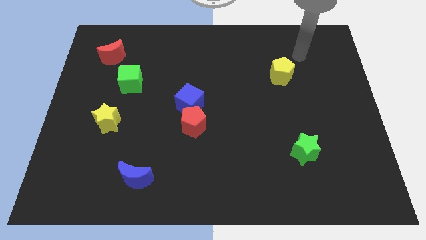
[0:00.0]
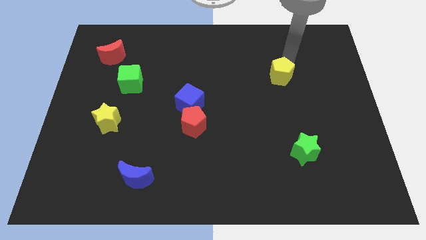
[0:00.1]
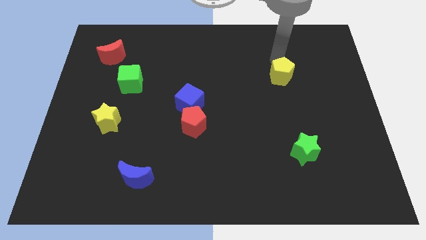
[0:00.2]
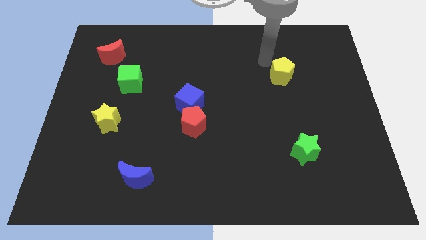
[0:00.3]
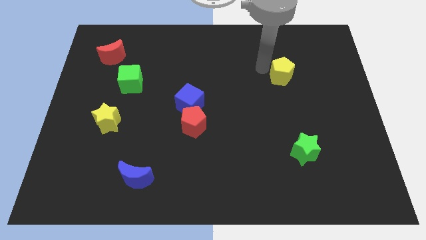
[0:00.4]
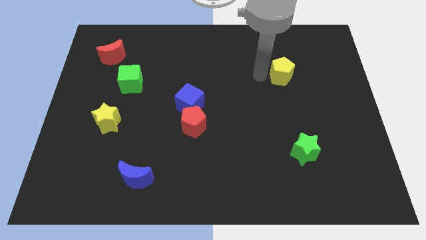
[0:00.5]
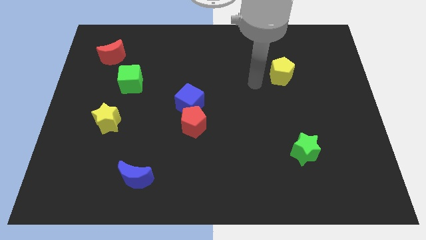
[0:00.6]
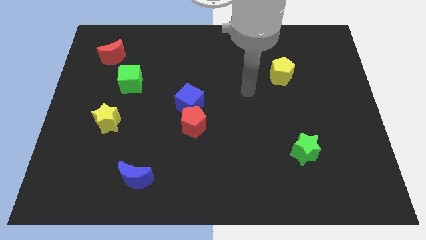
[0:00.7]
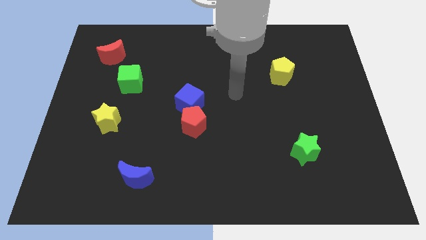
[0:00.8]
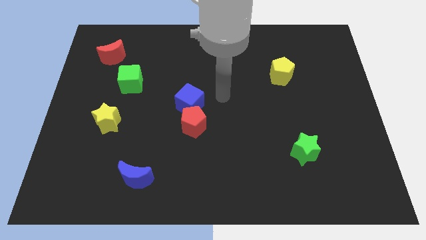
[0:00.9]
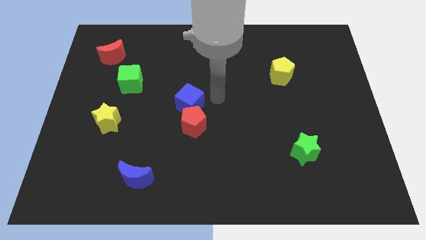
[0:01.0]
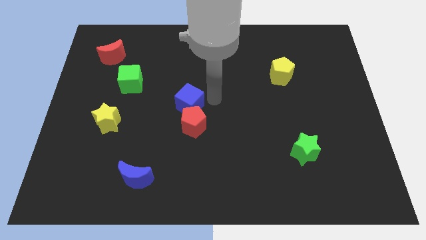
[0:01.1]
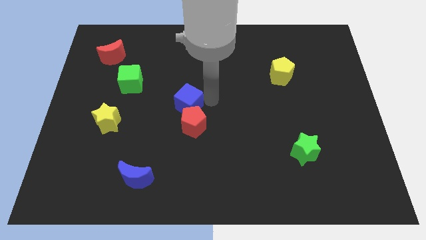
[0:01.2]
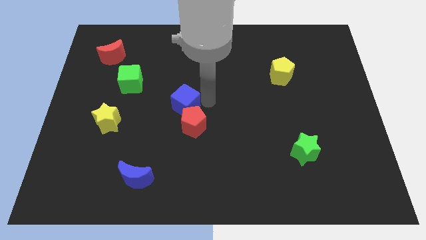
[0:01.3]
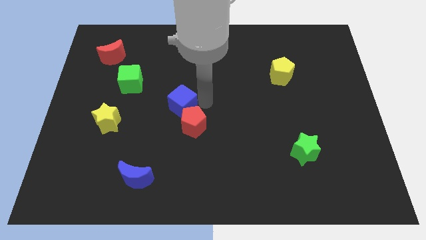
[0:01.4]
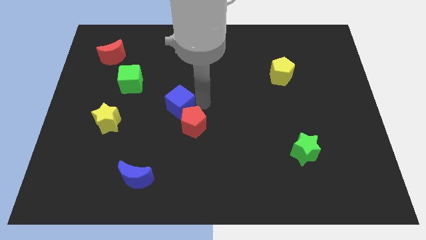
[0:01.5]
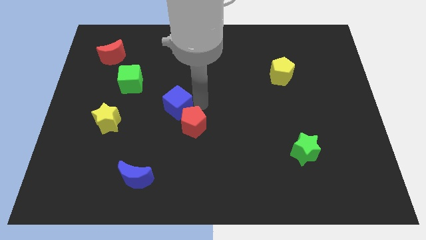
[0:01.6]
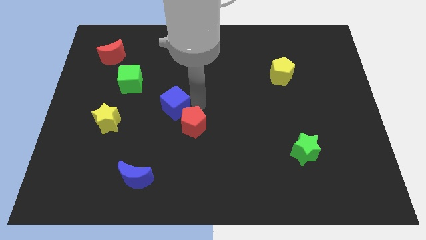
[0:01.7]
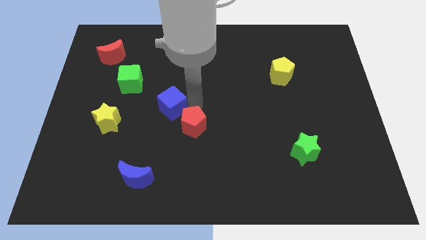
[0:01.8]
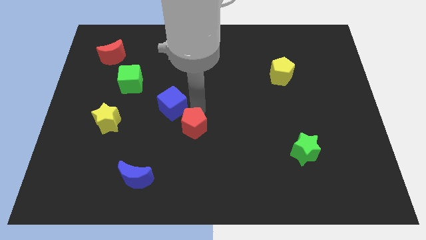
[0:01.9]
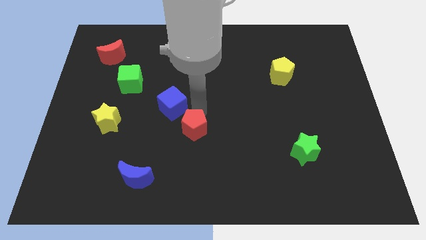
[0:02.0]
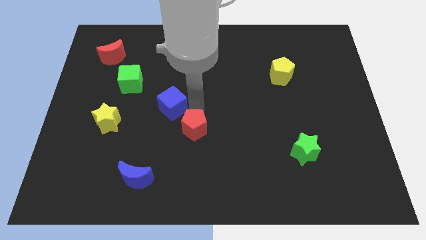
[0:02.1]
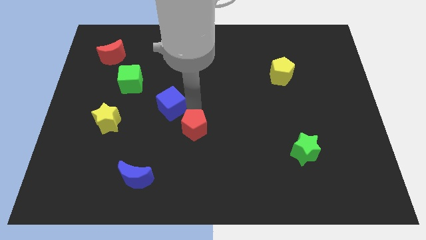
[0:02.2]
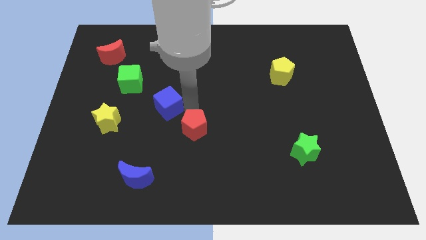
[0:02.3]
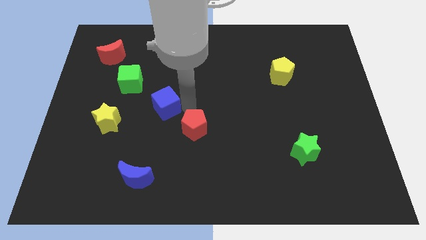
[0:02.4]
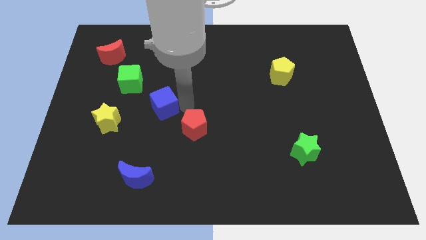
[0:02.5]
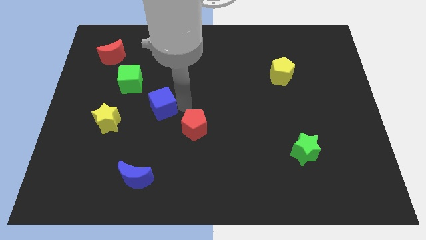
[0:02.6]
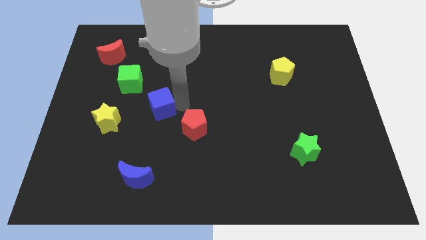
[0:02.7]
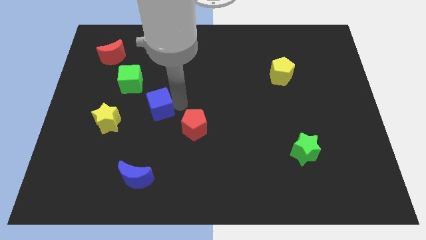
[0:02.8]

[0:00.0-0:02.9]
slightly push the blue cube left

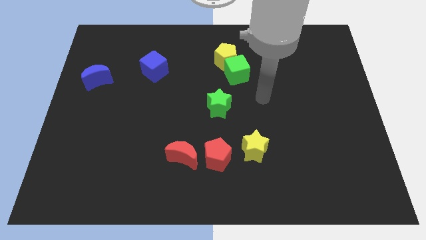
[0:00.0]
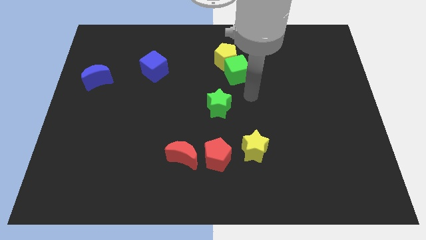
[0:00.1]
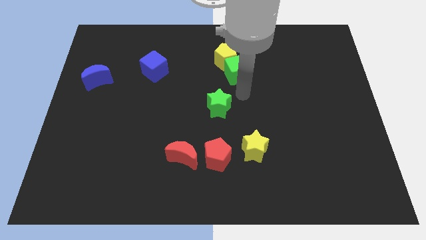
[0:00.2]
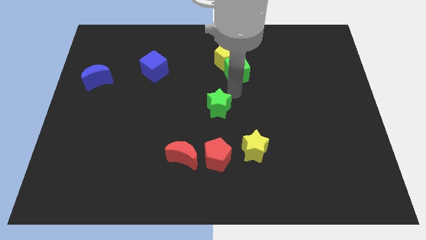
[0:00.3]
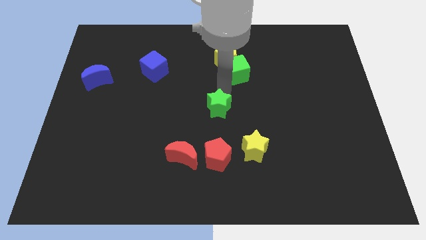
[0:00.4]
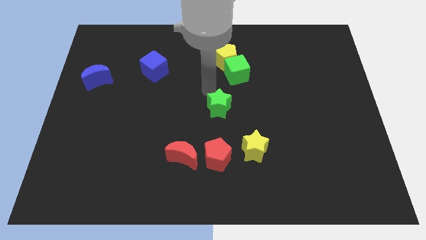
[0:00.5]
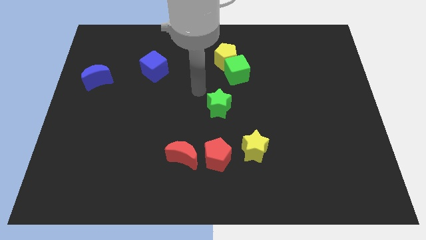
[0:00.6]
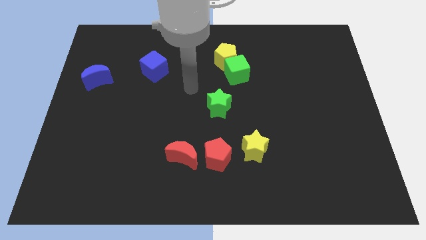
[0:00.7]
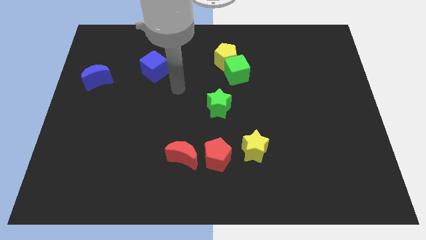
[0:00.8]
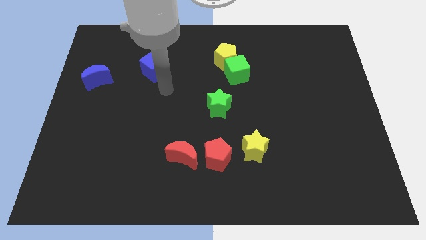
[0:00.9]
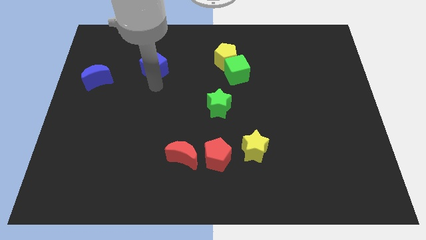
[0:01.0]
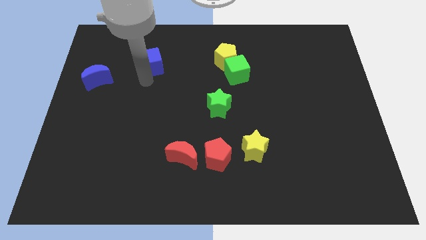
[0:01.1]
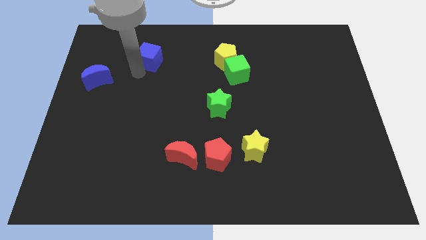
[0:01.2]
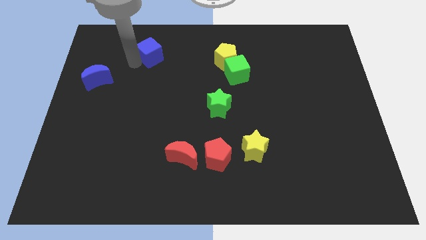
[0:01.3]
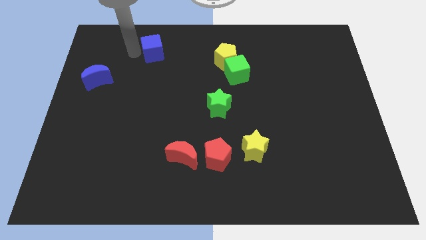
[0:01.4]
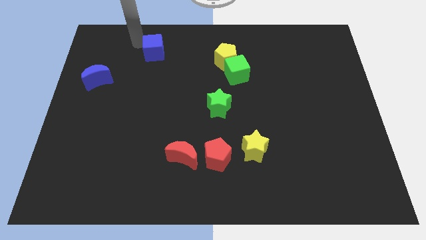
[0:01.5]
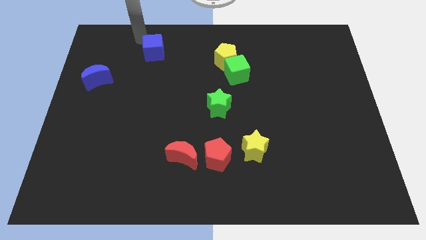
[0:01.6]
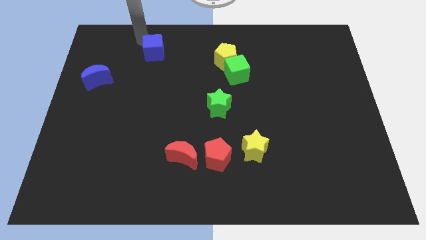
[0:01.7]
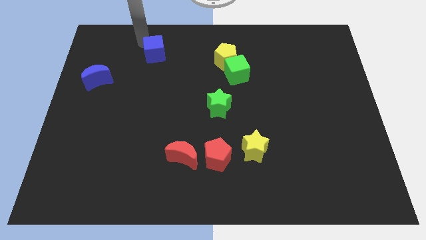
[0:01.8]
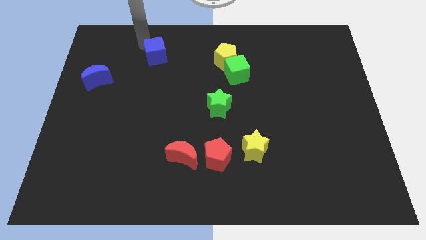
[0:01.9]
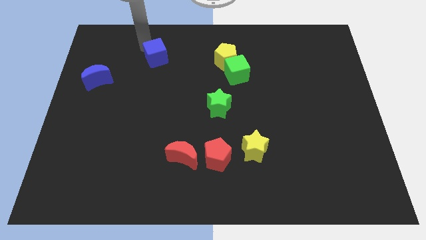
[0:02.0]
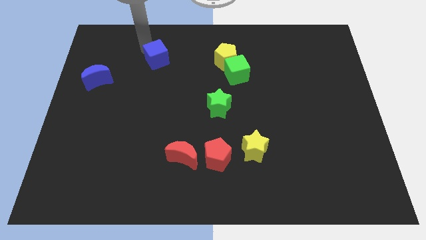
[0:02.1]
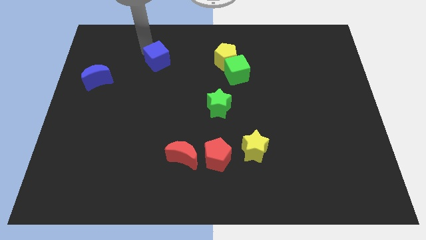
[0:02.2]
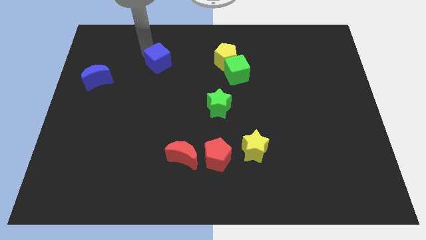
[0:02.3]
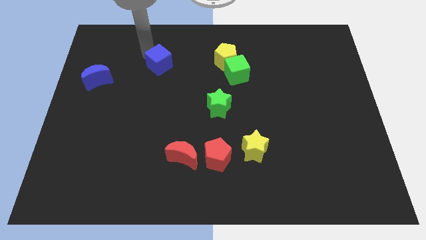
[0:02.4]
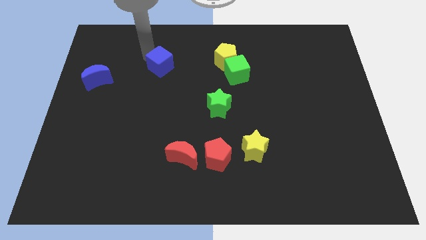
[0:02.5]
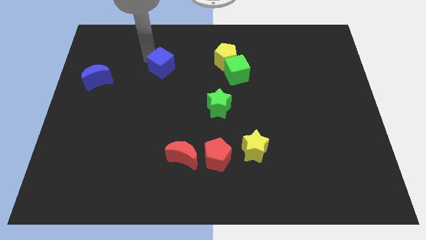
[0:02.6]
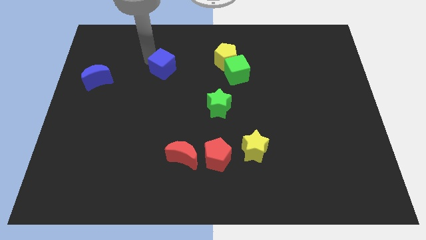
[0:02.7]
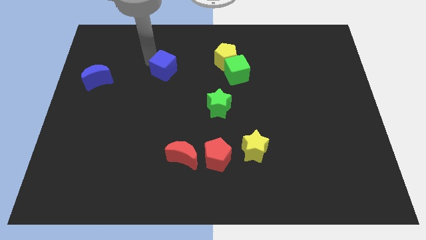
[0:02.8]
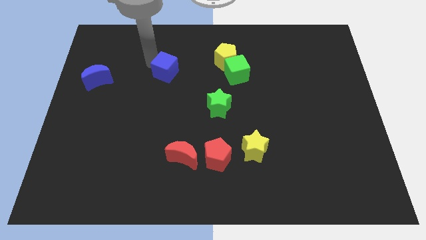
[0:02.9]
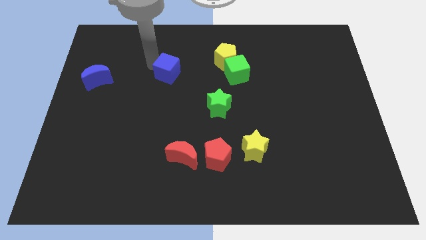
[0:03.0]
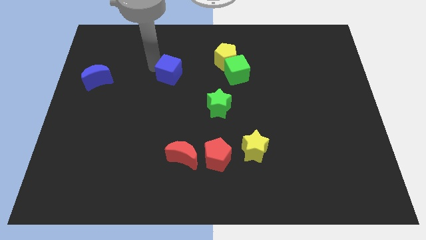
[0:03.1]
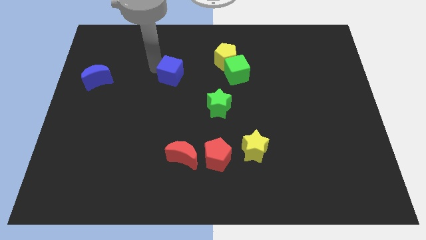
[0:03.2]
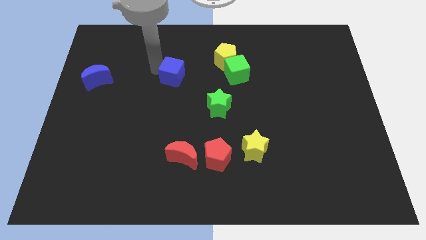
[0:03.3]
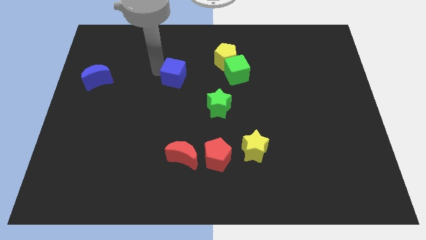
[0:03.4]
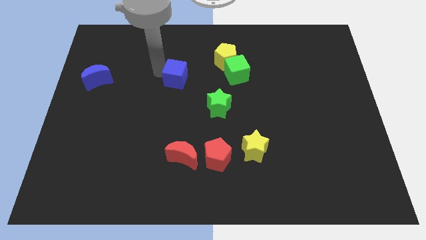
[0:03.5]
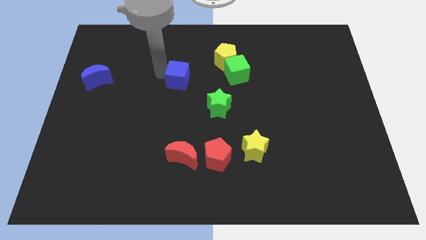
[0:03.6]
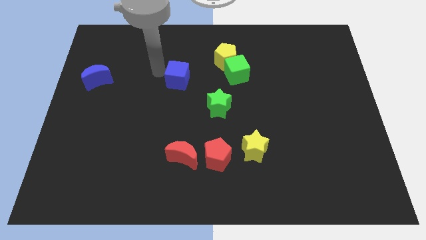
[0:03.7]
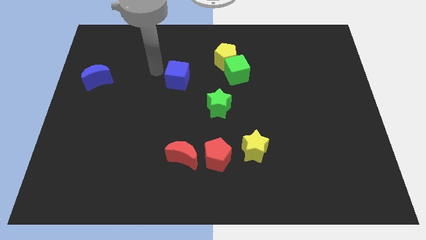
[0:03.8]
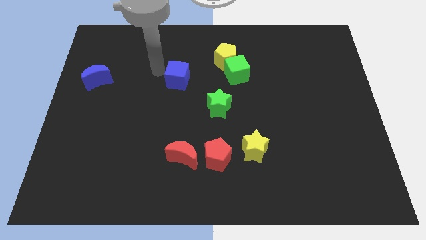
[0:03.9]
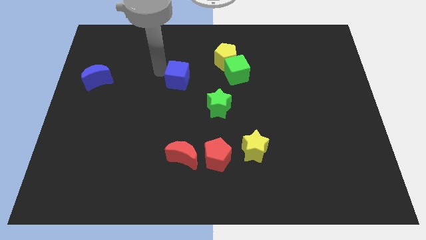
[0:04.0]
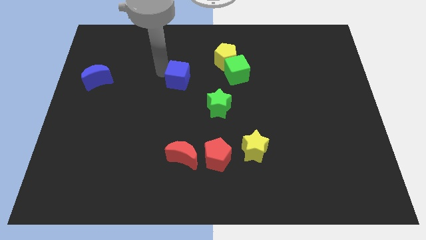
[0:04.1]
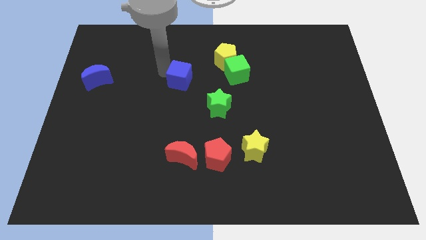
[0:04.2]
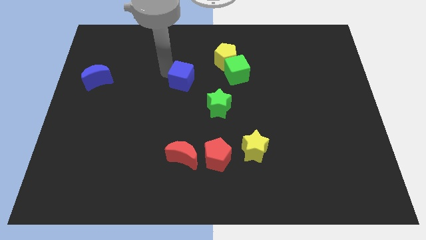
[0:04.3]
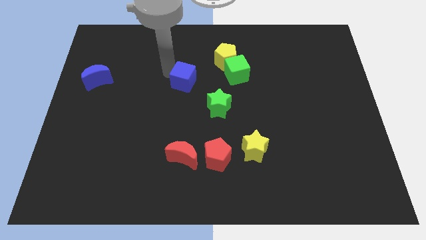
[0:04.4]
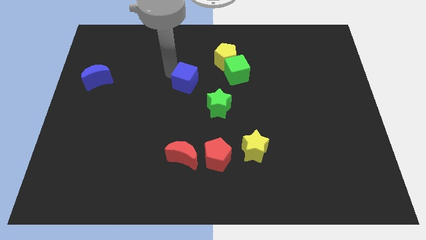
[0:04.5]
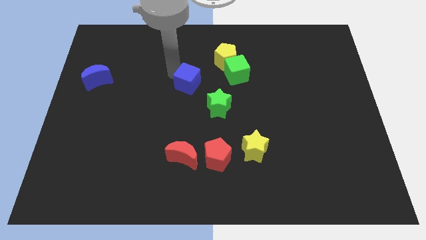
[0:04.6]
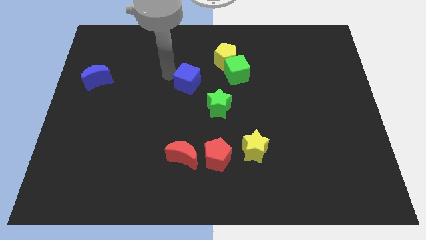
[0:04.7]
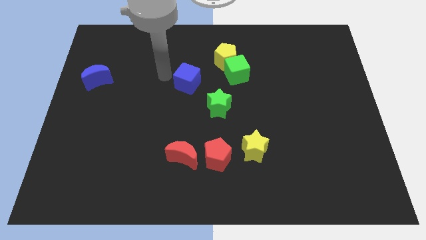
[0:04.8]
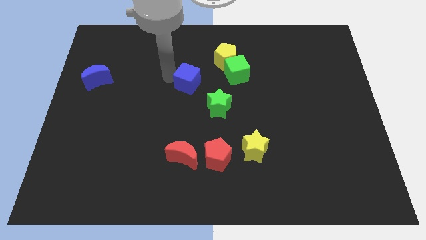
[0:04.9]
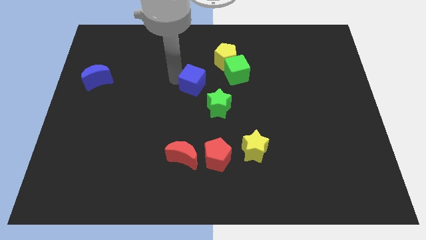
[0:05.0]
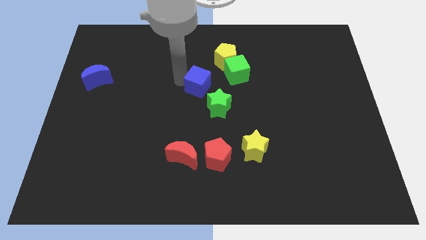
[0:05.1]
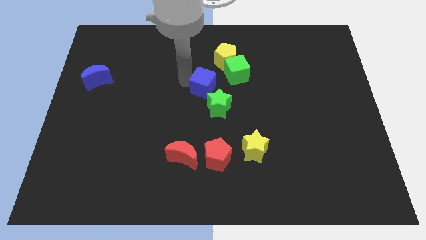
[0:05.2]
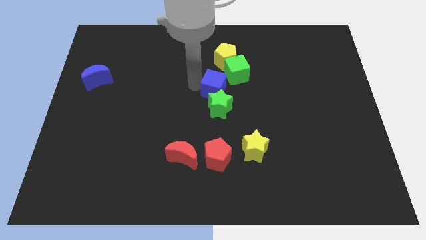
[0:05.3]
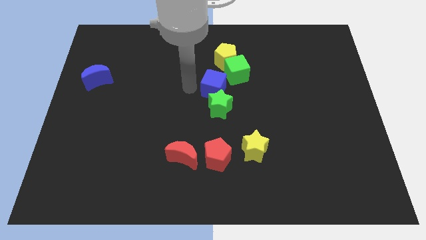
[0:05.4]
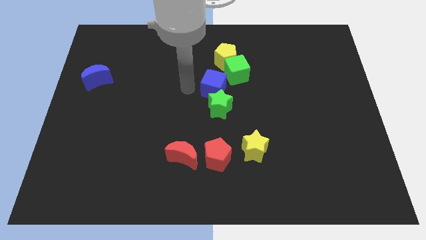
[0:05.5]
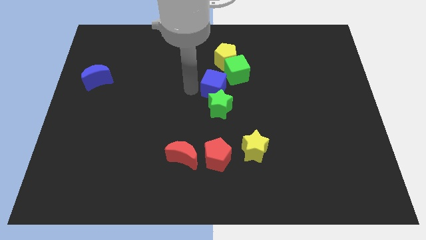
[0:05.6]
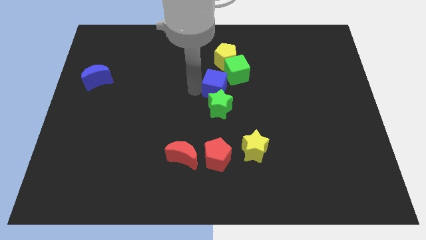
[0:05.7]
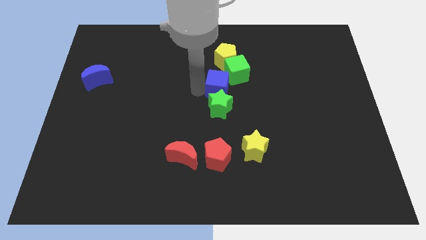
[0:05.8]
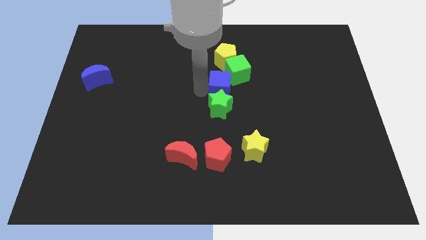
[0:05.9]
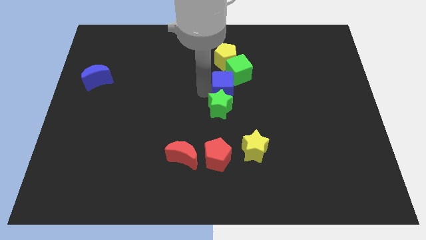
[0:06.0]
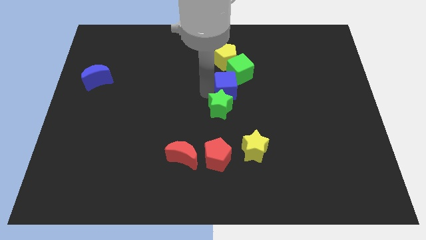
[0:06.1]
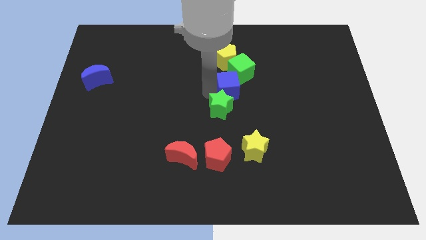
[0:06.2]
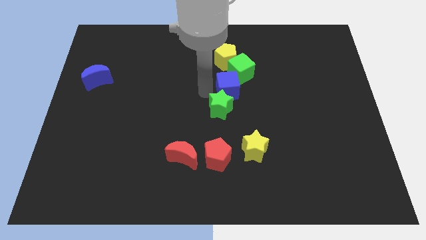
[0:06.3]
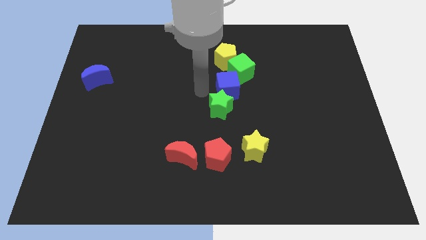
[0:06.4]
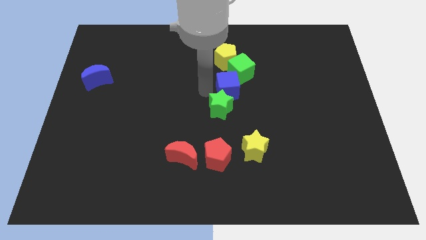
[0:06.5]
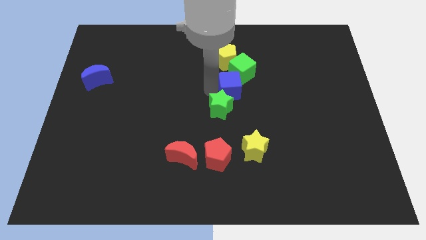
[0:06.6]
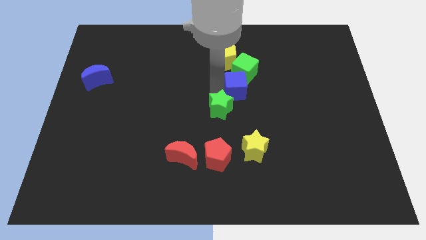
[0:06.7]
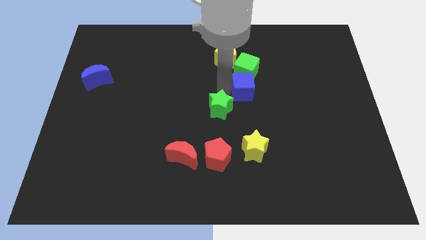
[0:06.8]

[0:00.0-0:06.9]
move the blue cube to the right
